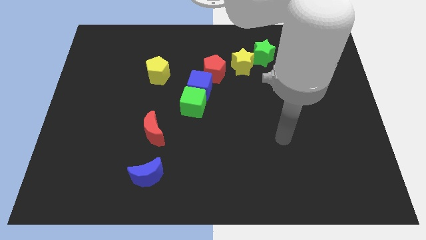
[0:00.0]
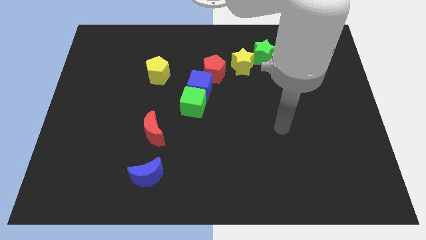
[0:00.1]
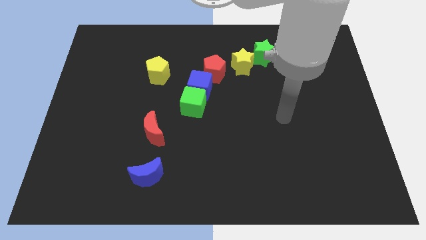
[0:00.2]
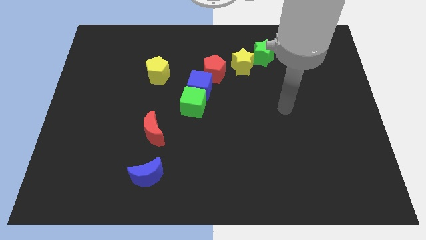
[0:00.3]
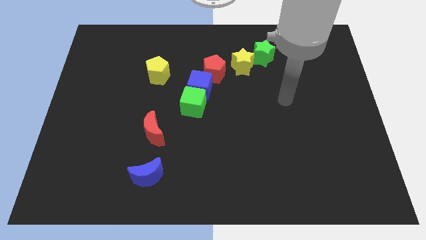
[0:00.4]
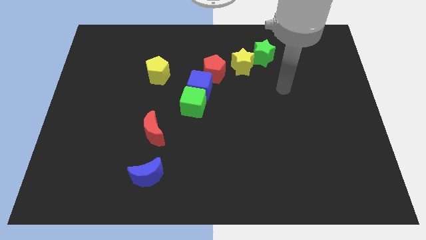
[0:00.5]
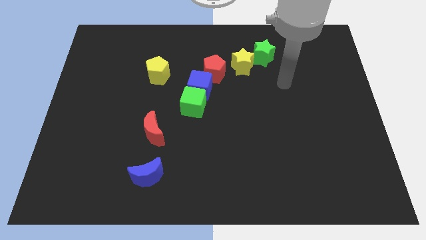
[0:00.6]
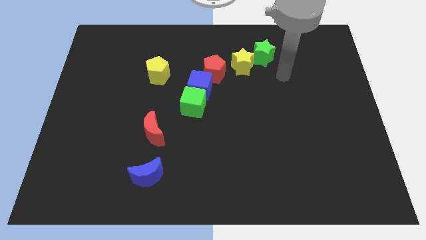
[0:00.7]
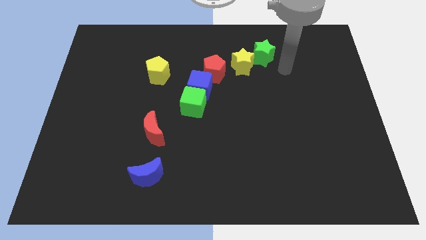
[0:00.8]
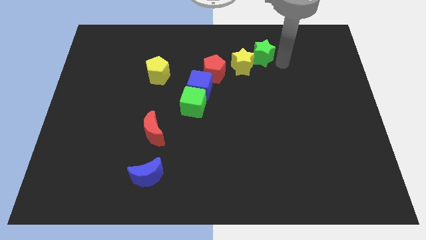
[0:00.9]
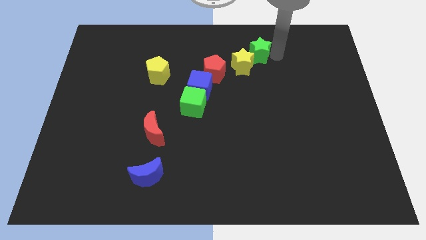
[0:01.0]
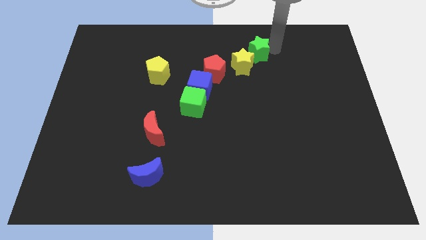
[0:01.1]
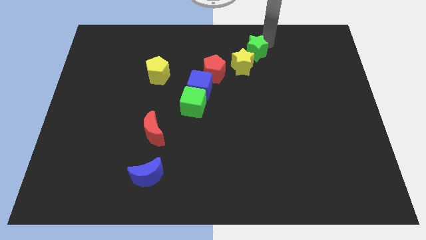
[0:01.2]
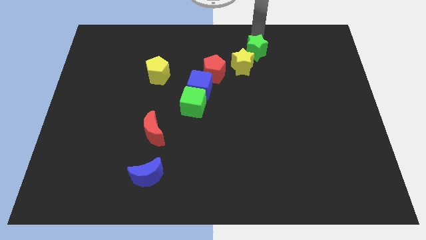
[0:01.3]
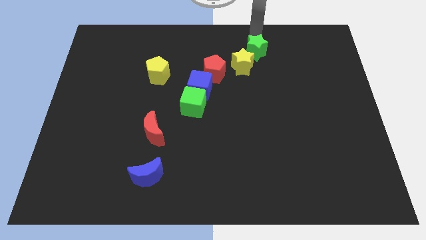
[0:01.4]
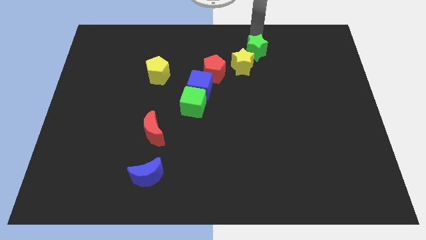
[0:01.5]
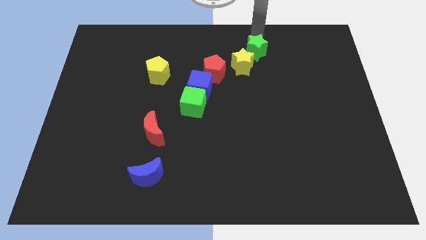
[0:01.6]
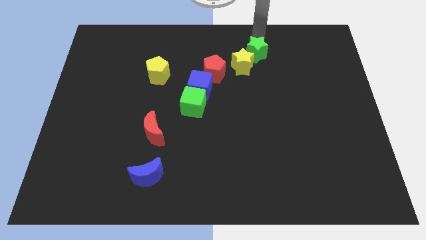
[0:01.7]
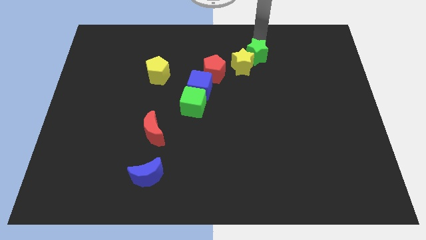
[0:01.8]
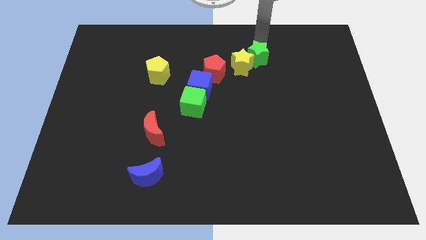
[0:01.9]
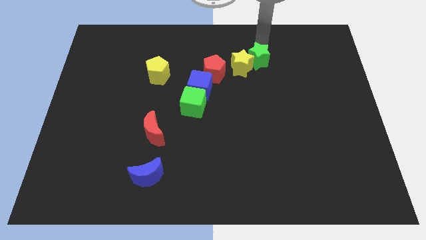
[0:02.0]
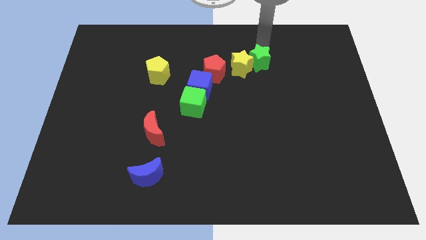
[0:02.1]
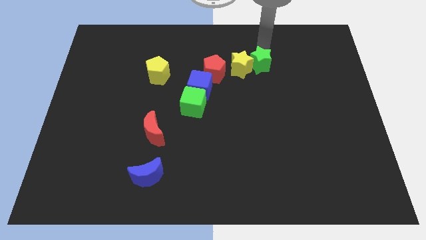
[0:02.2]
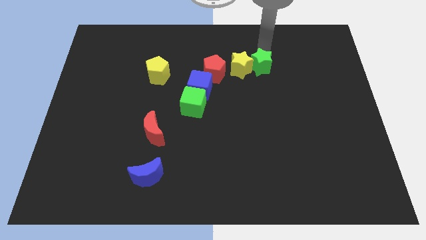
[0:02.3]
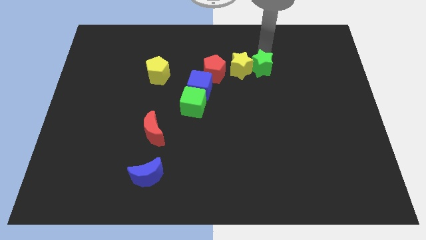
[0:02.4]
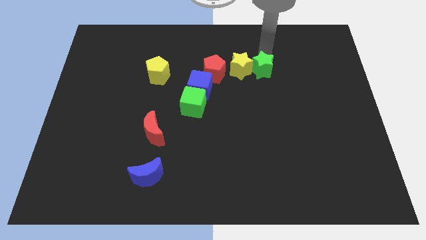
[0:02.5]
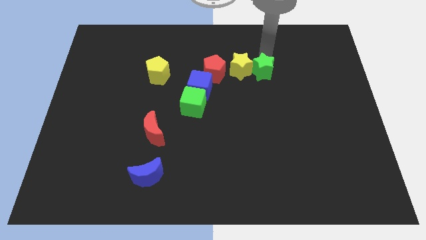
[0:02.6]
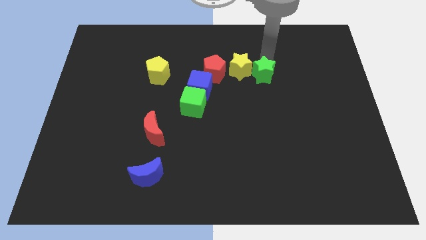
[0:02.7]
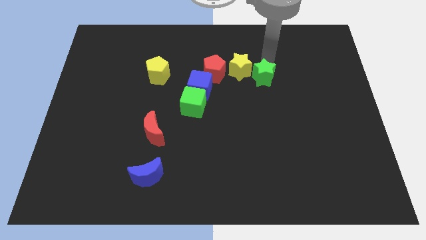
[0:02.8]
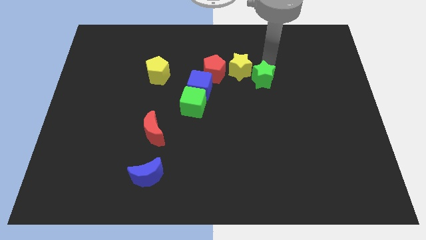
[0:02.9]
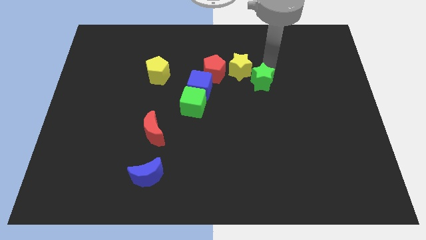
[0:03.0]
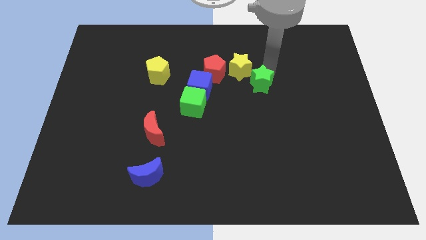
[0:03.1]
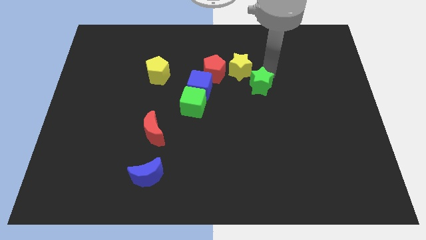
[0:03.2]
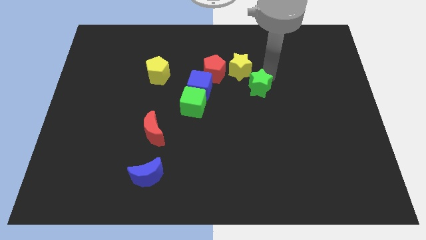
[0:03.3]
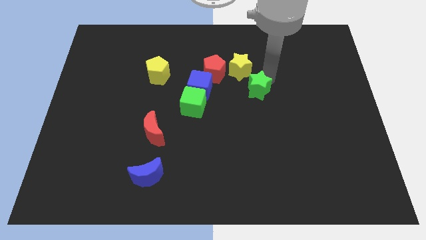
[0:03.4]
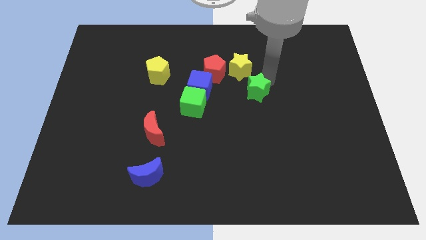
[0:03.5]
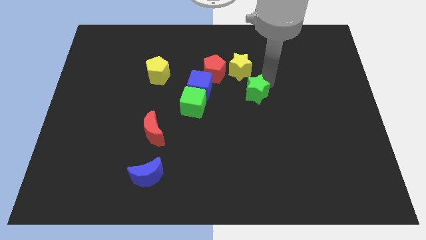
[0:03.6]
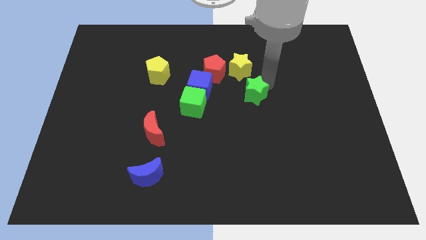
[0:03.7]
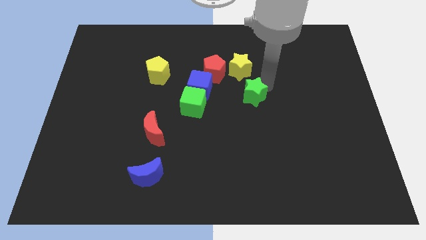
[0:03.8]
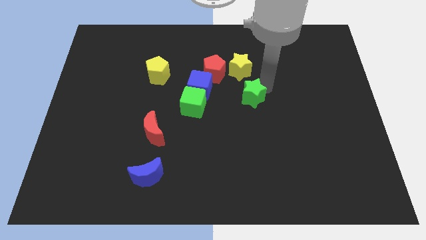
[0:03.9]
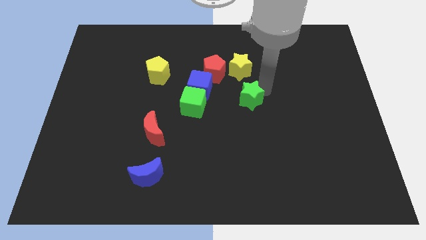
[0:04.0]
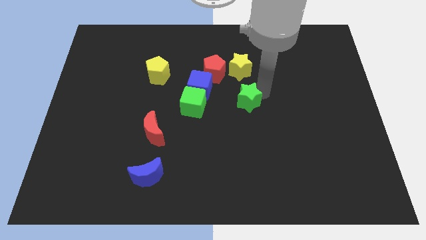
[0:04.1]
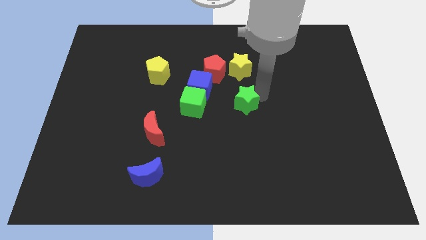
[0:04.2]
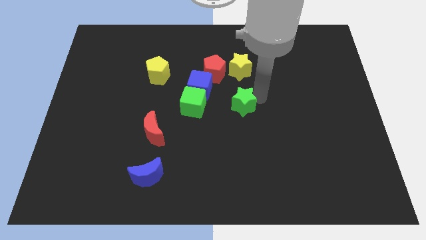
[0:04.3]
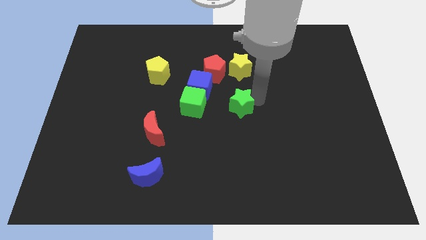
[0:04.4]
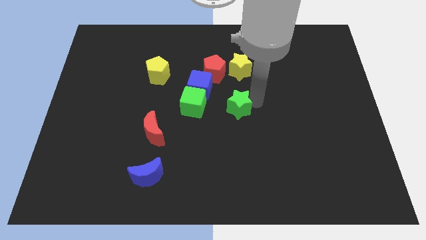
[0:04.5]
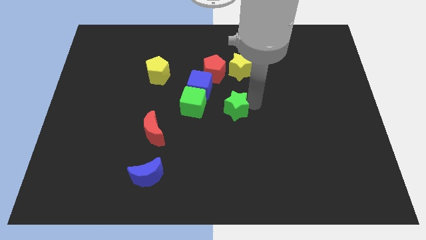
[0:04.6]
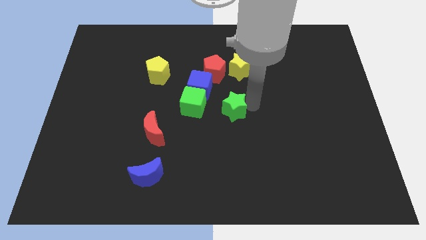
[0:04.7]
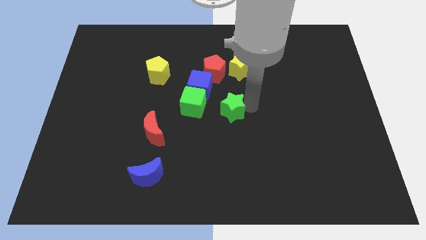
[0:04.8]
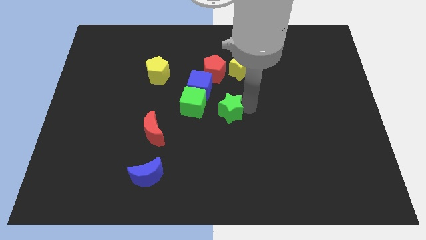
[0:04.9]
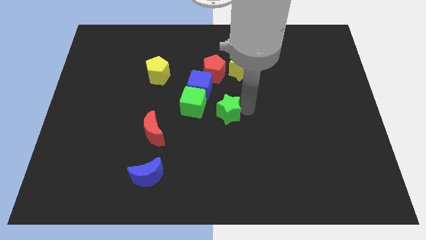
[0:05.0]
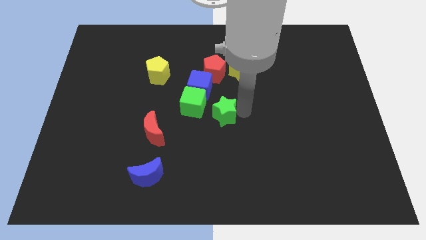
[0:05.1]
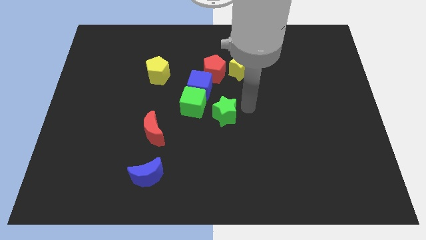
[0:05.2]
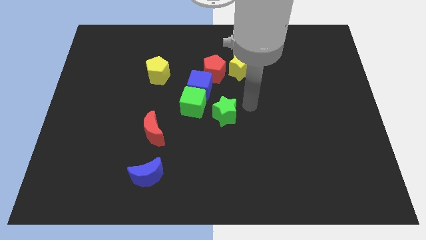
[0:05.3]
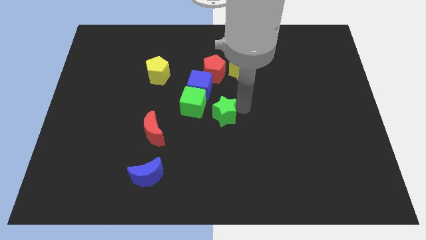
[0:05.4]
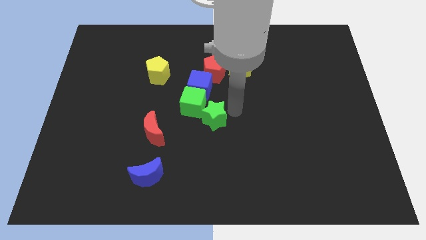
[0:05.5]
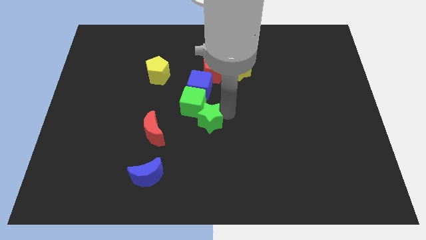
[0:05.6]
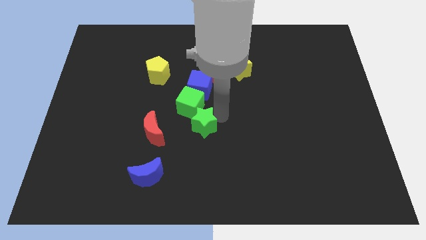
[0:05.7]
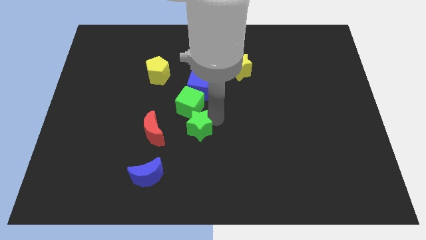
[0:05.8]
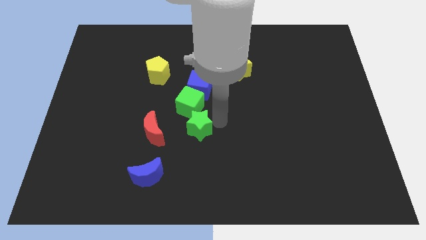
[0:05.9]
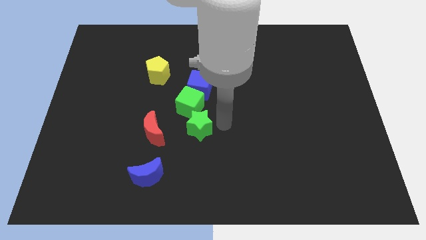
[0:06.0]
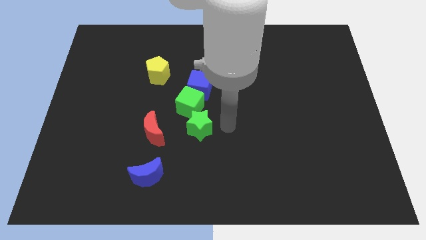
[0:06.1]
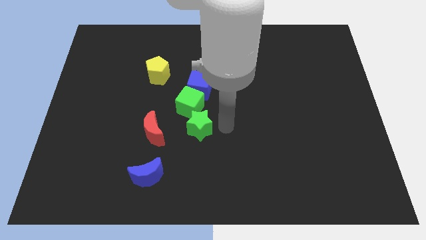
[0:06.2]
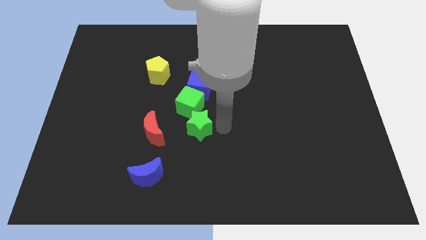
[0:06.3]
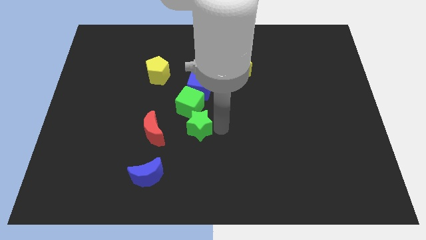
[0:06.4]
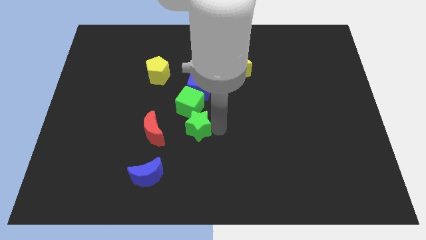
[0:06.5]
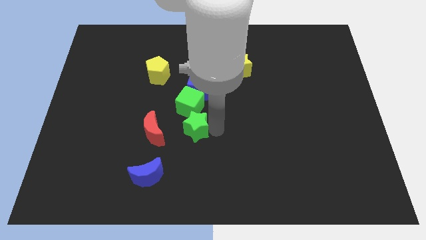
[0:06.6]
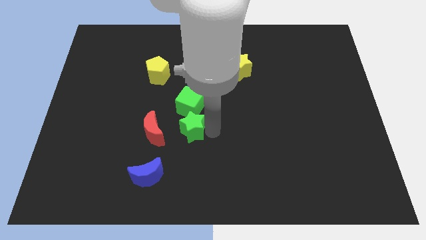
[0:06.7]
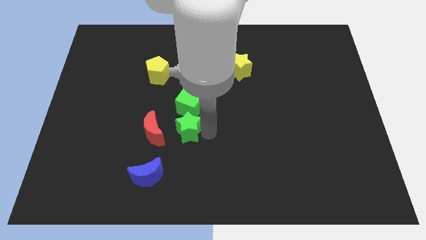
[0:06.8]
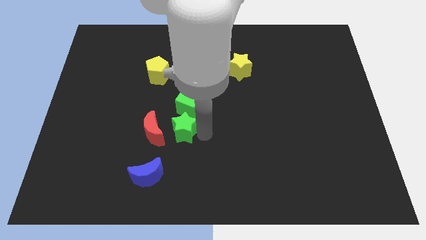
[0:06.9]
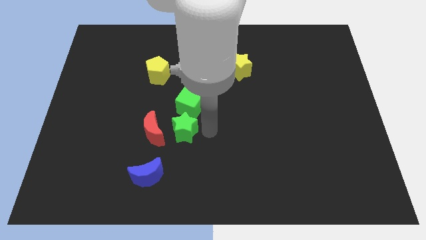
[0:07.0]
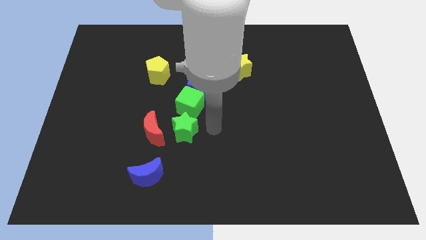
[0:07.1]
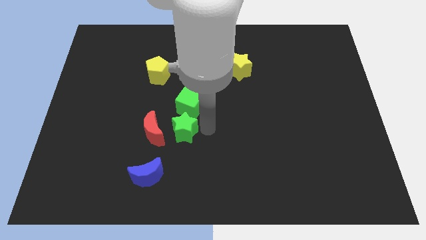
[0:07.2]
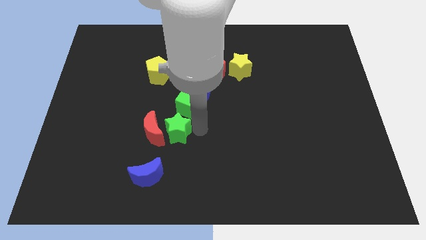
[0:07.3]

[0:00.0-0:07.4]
move the green star close to the red moon
